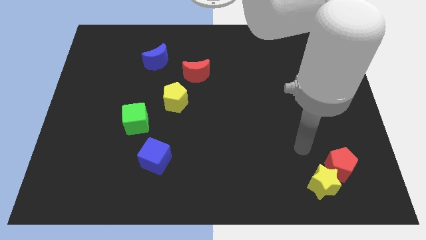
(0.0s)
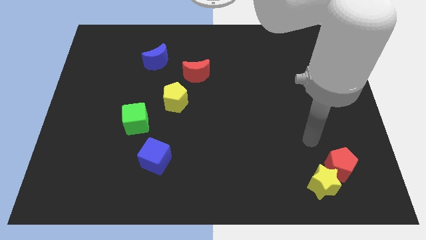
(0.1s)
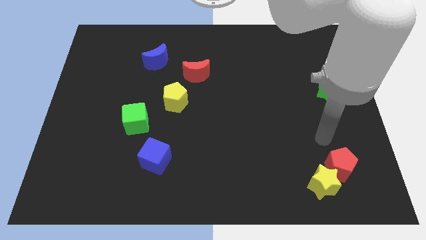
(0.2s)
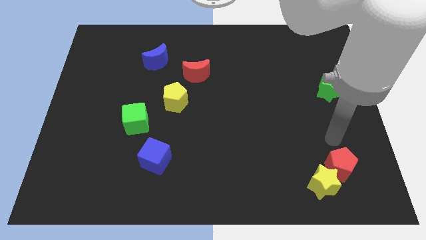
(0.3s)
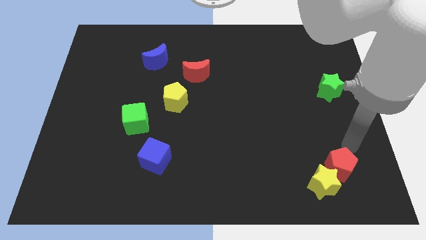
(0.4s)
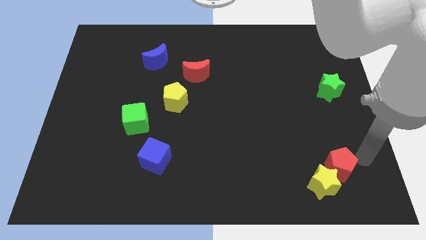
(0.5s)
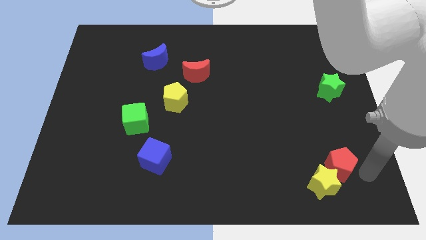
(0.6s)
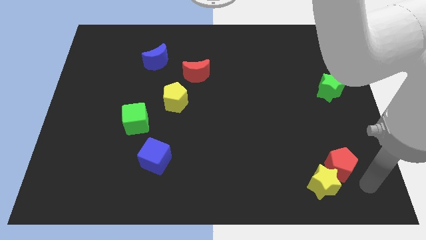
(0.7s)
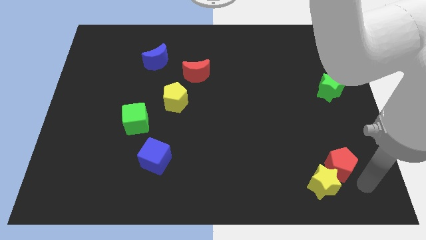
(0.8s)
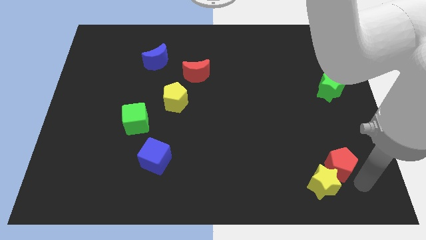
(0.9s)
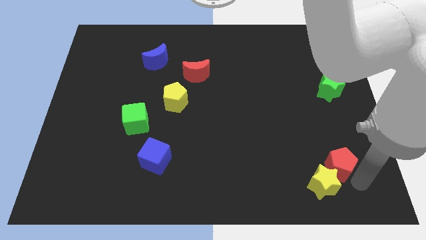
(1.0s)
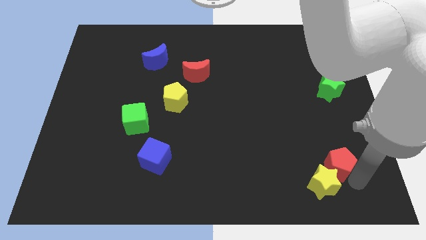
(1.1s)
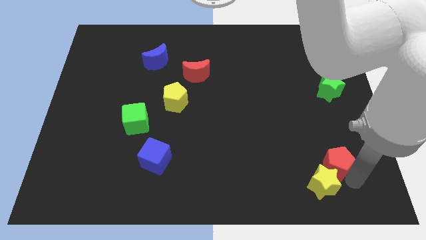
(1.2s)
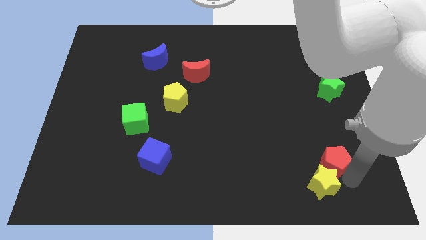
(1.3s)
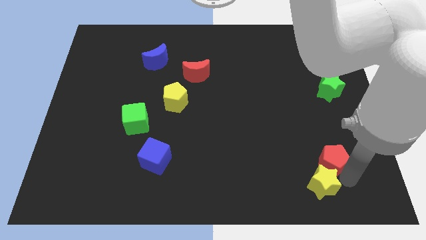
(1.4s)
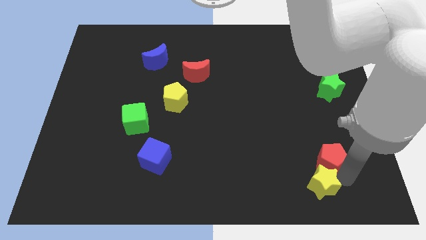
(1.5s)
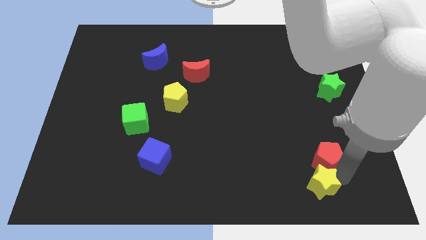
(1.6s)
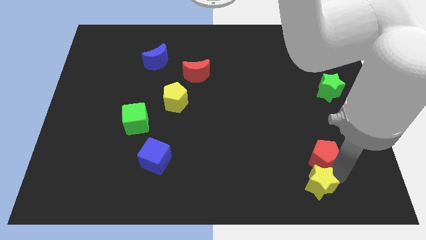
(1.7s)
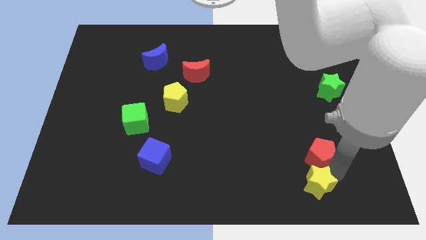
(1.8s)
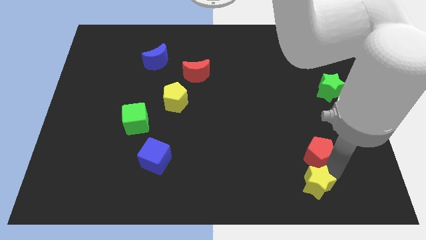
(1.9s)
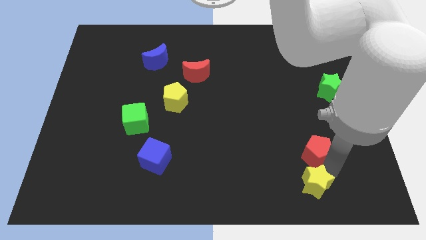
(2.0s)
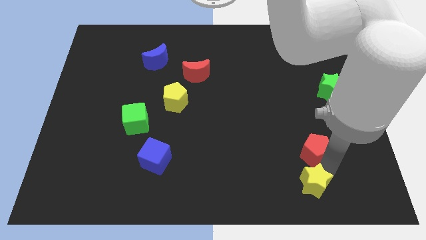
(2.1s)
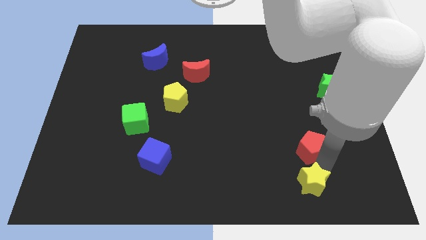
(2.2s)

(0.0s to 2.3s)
push the red pentagon a bit upwards and then to the left

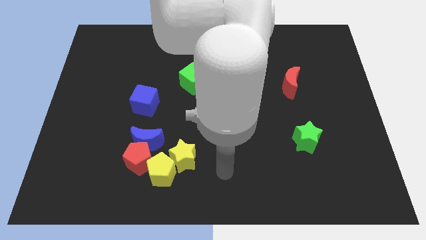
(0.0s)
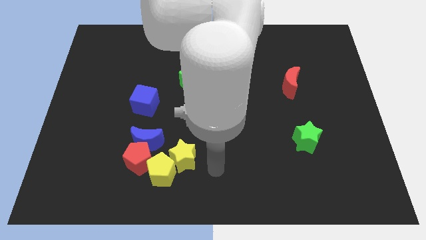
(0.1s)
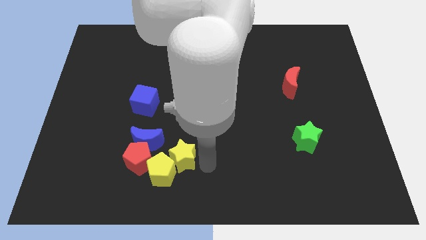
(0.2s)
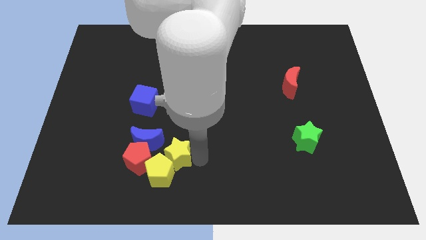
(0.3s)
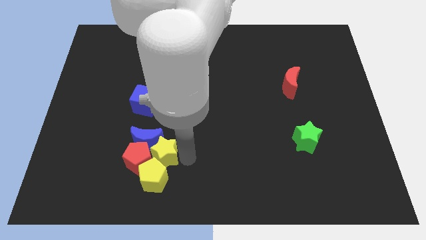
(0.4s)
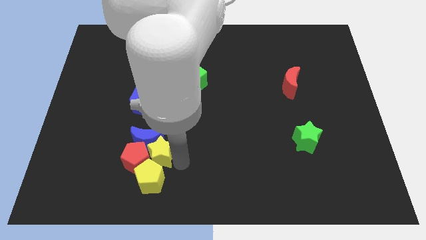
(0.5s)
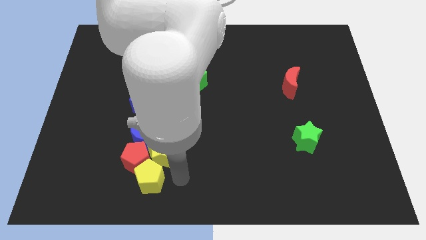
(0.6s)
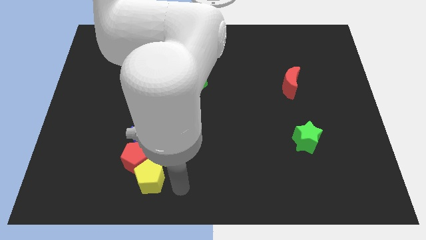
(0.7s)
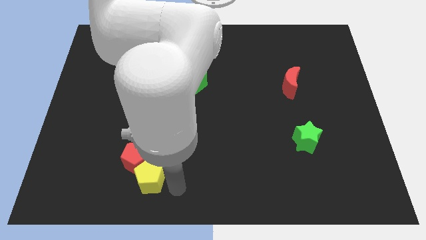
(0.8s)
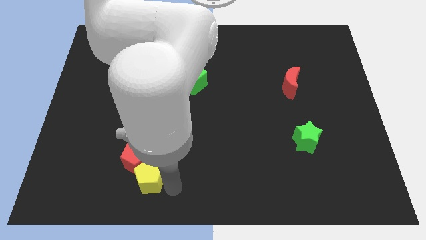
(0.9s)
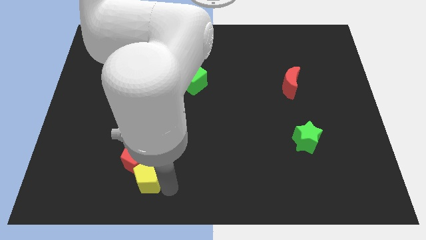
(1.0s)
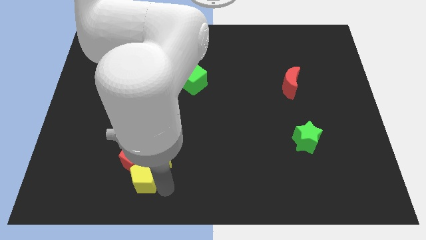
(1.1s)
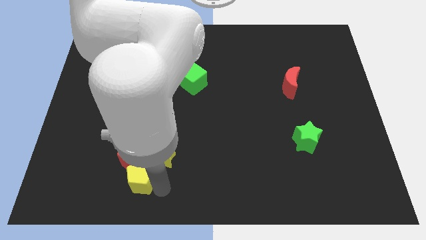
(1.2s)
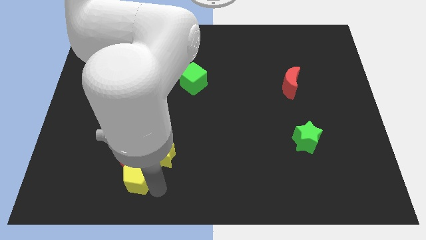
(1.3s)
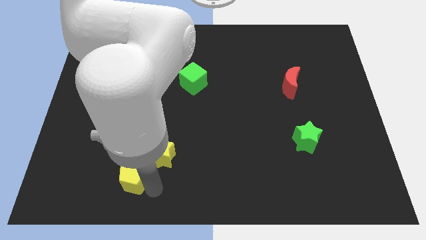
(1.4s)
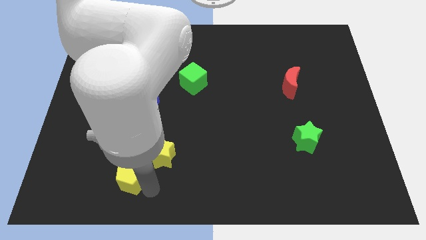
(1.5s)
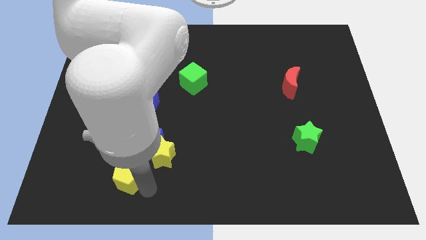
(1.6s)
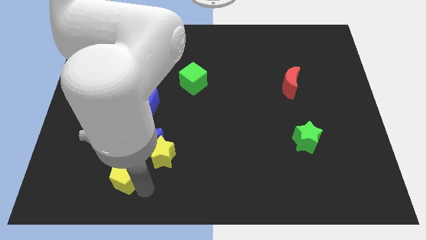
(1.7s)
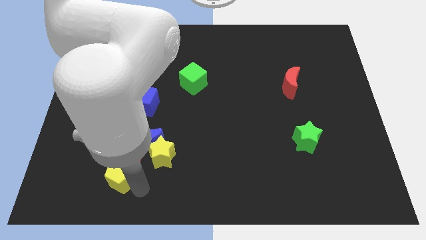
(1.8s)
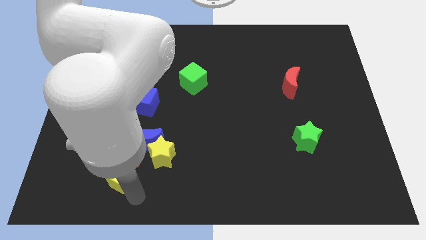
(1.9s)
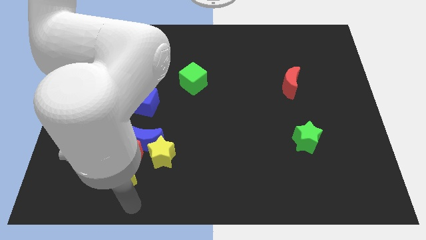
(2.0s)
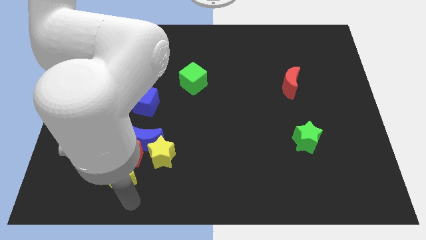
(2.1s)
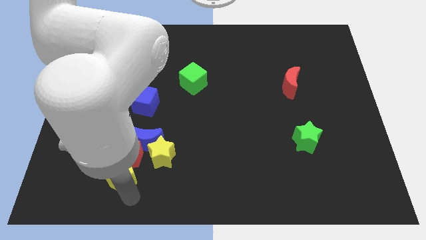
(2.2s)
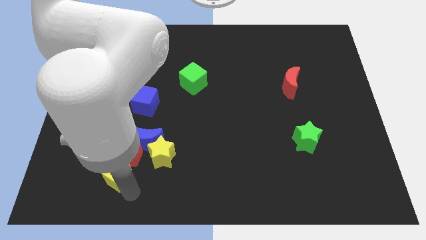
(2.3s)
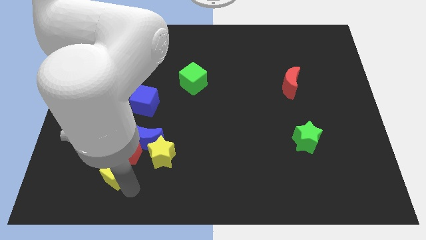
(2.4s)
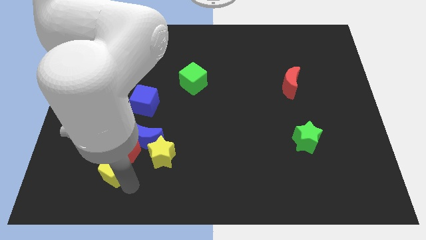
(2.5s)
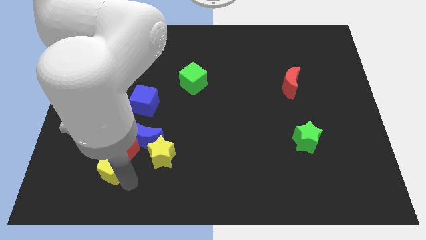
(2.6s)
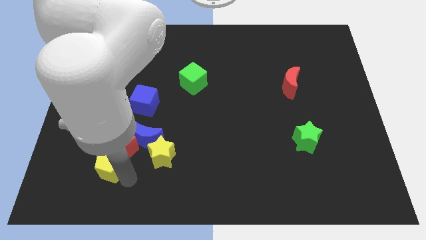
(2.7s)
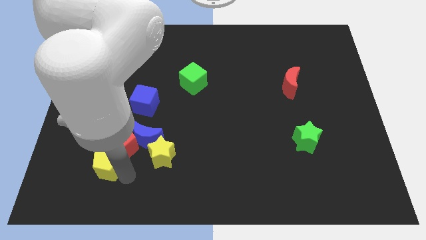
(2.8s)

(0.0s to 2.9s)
push the yellow pentagon diagonally up and to the left a little

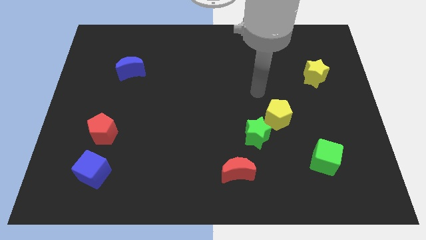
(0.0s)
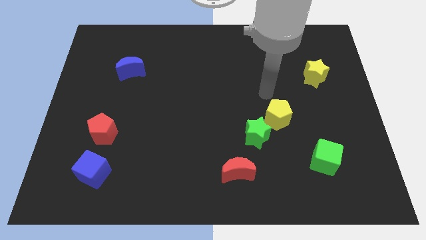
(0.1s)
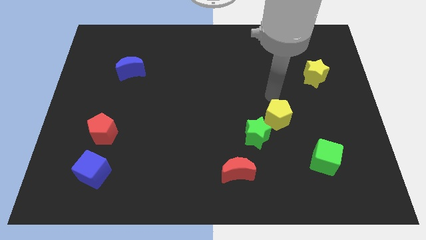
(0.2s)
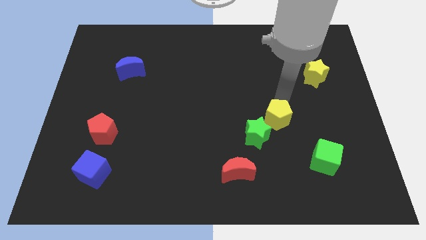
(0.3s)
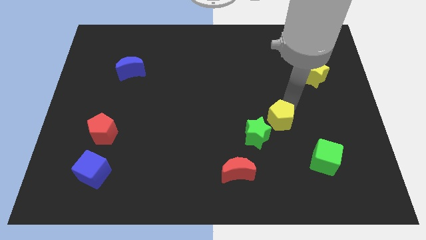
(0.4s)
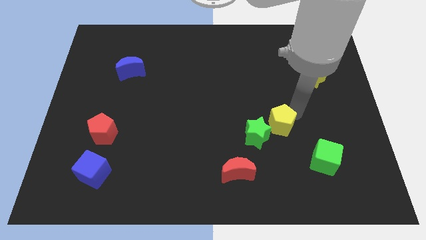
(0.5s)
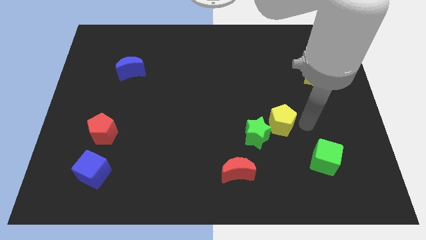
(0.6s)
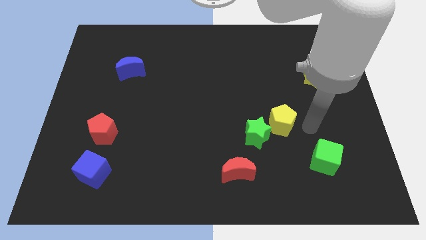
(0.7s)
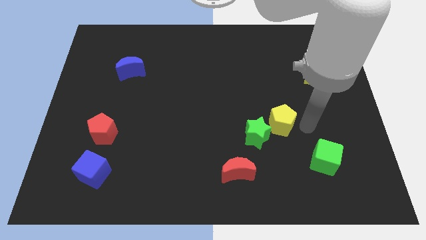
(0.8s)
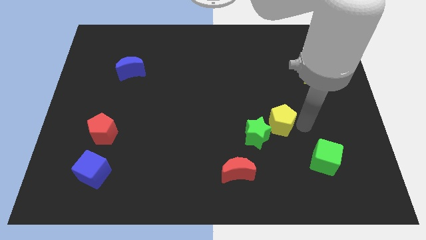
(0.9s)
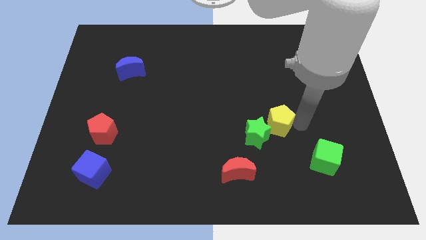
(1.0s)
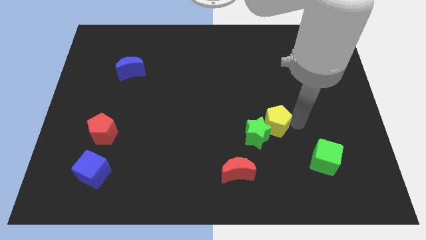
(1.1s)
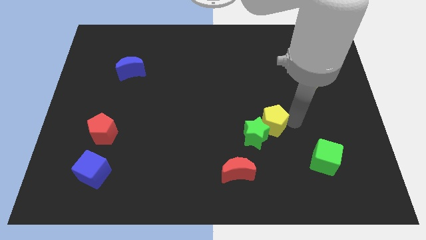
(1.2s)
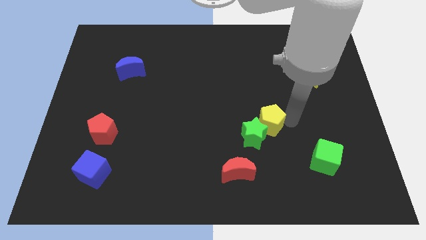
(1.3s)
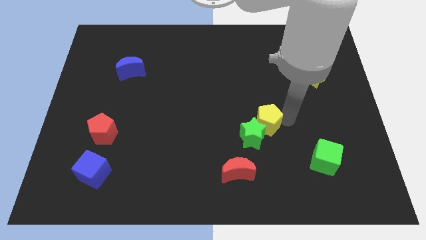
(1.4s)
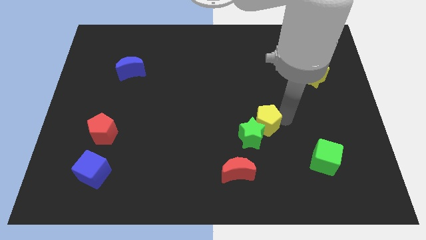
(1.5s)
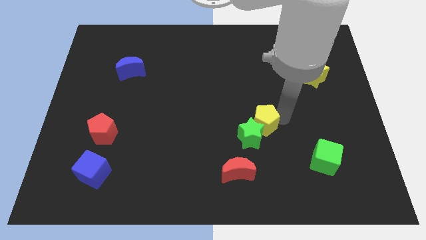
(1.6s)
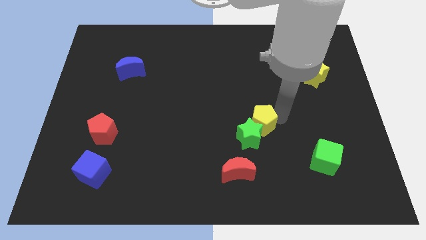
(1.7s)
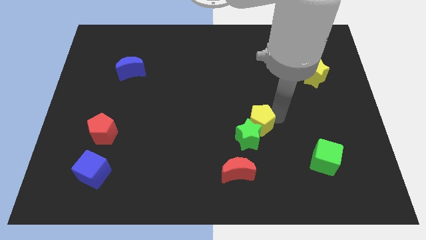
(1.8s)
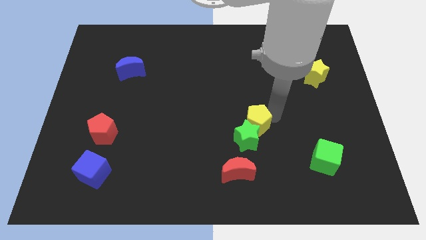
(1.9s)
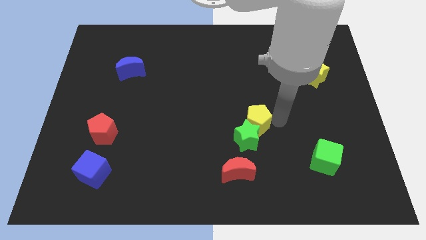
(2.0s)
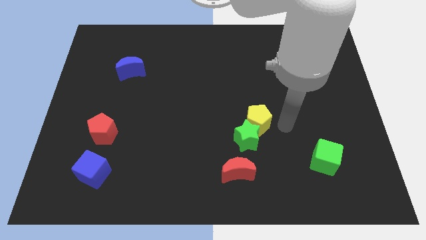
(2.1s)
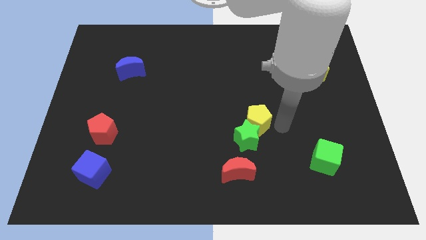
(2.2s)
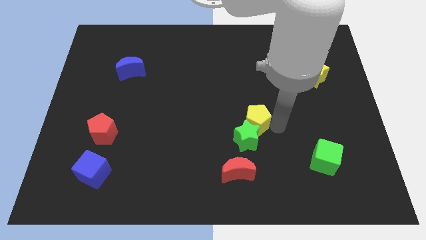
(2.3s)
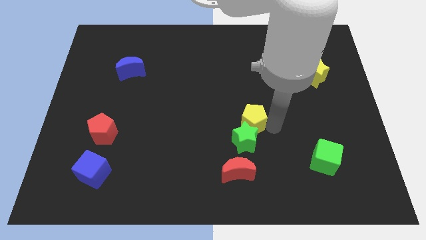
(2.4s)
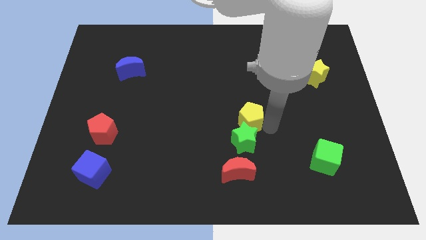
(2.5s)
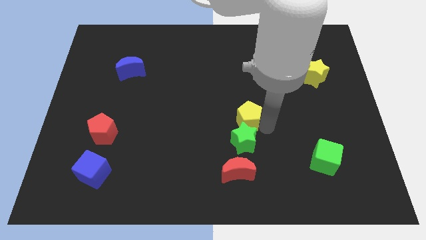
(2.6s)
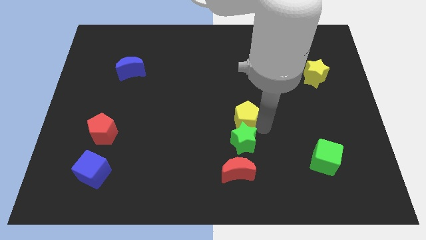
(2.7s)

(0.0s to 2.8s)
slightly slide the yellow pentagon to the left

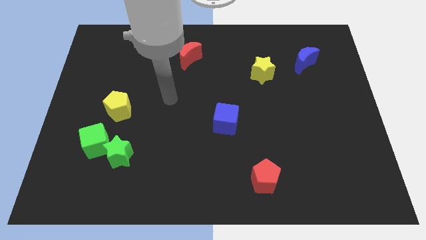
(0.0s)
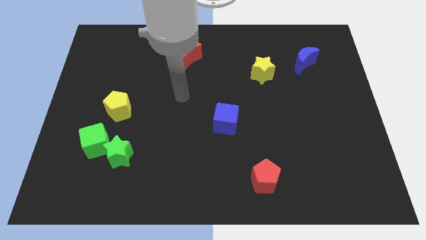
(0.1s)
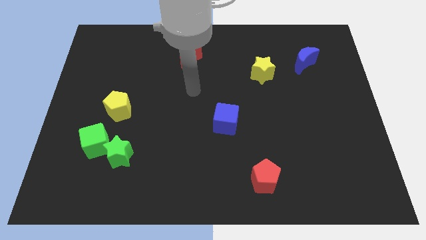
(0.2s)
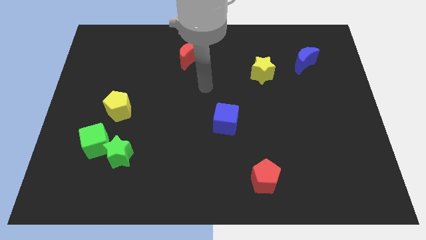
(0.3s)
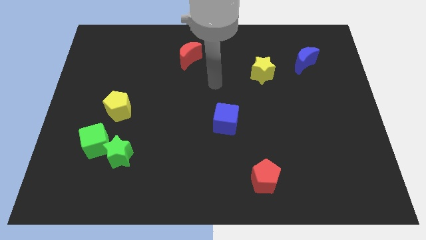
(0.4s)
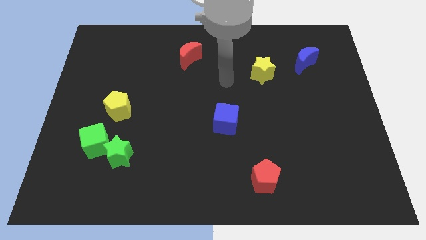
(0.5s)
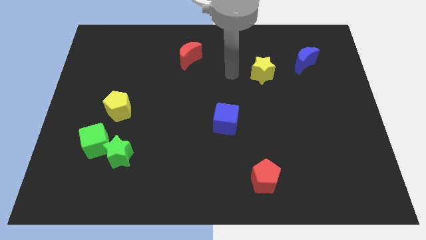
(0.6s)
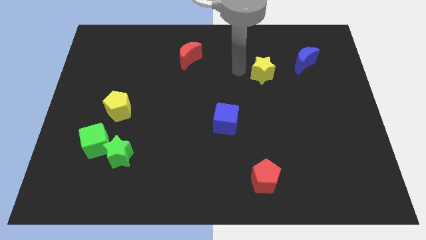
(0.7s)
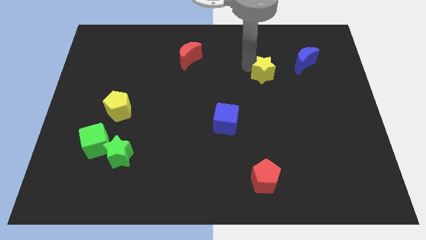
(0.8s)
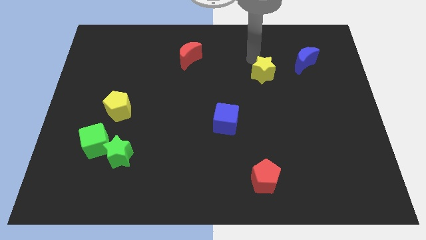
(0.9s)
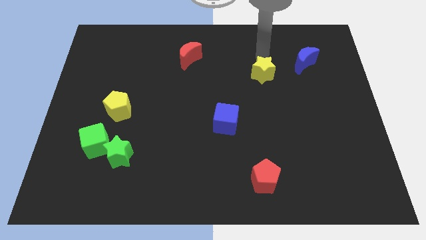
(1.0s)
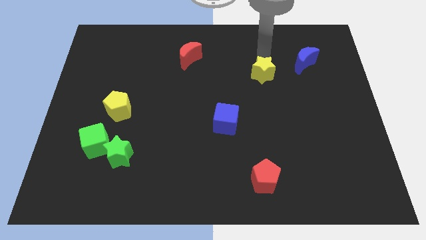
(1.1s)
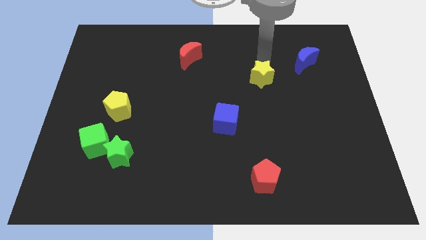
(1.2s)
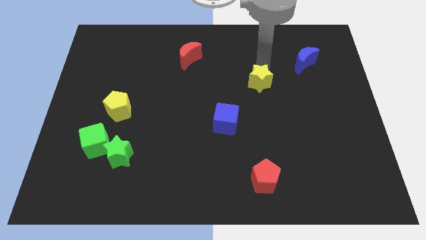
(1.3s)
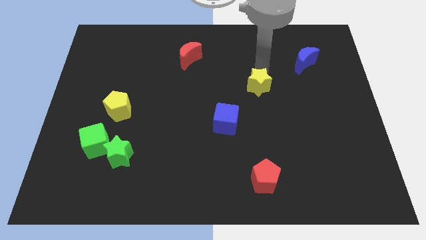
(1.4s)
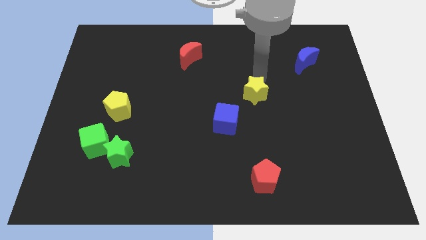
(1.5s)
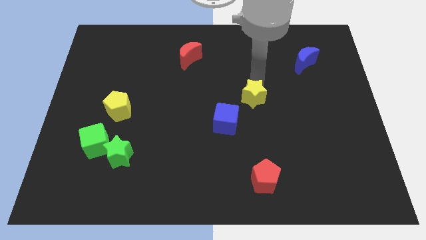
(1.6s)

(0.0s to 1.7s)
push the yellow star downwards slightly
